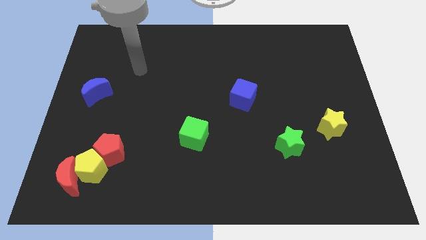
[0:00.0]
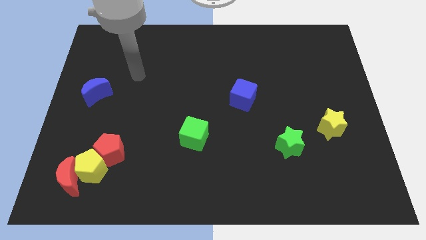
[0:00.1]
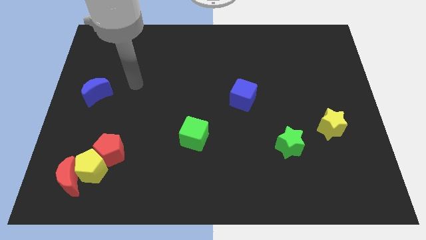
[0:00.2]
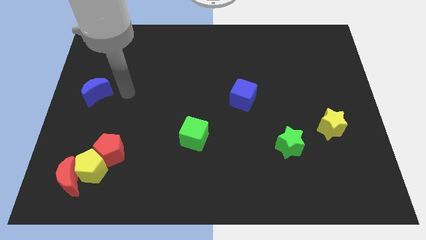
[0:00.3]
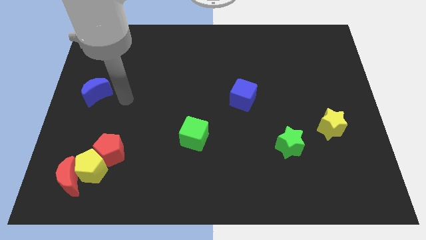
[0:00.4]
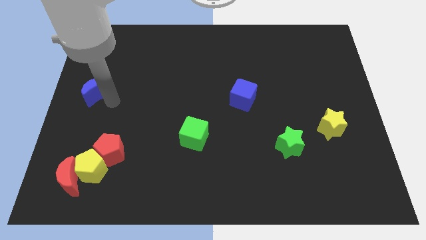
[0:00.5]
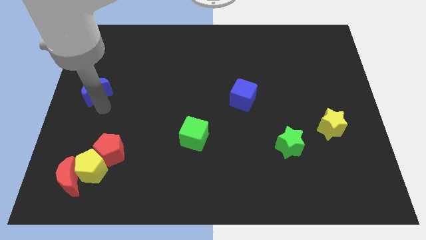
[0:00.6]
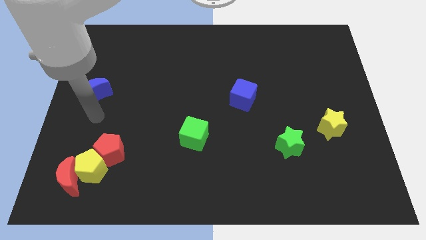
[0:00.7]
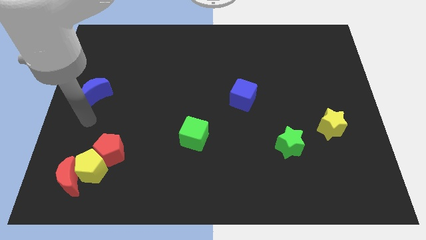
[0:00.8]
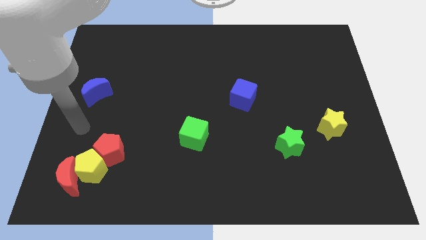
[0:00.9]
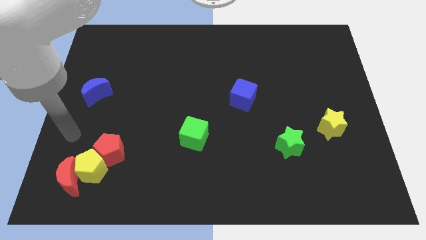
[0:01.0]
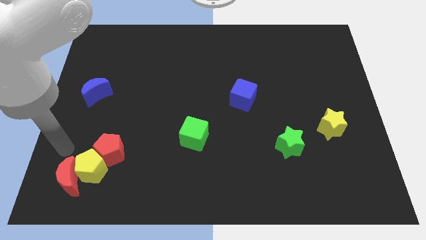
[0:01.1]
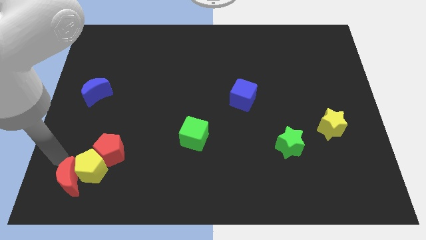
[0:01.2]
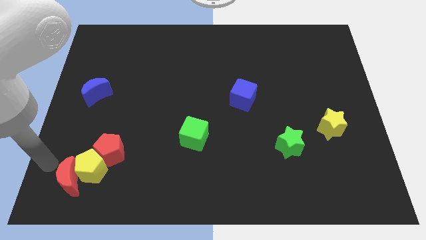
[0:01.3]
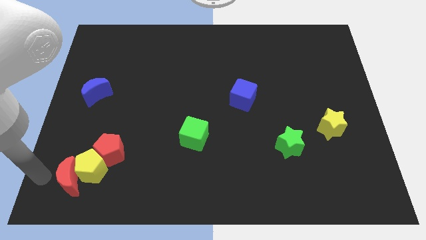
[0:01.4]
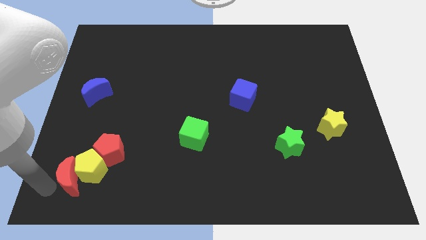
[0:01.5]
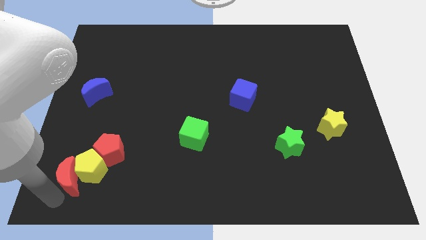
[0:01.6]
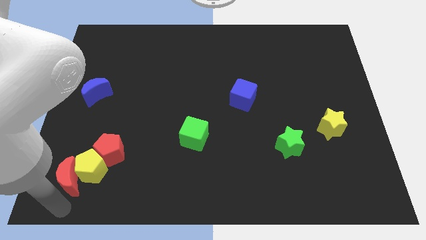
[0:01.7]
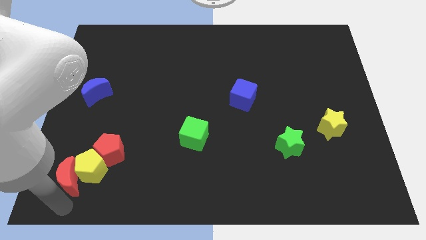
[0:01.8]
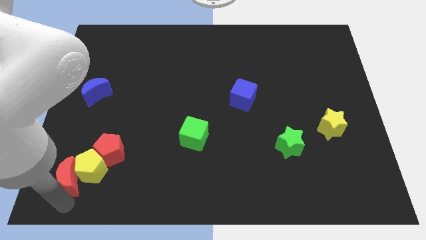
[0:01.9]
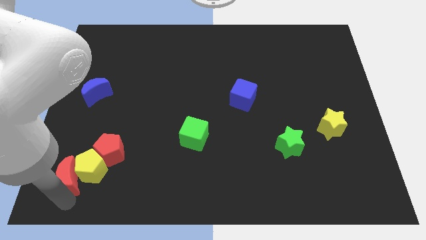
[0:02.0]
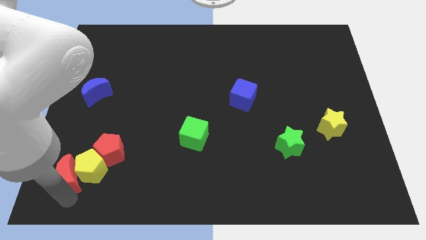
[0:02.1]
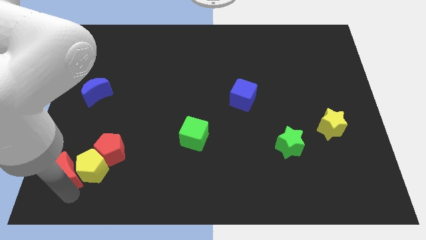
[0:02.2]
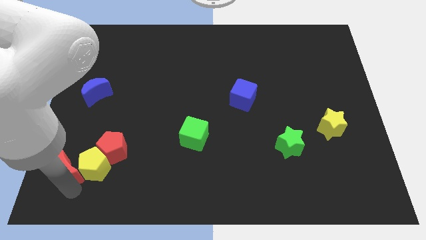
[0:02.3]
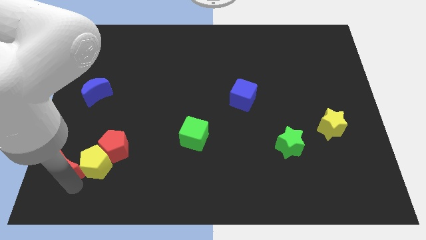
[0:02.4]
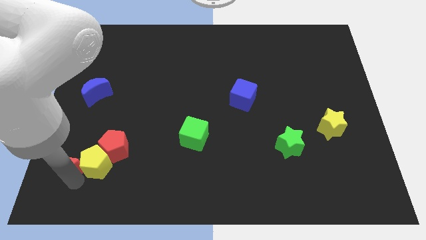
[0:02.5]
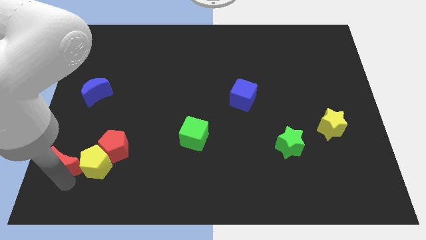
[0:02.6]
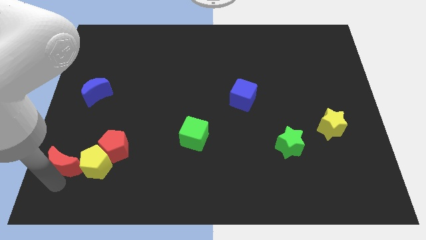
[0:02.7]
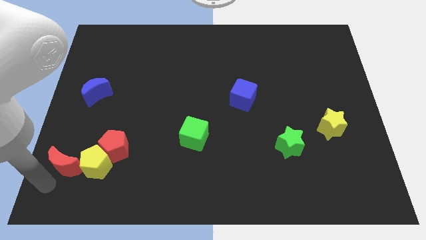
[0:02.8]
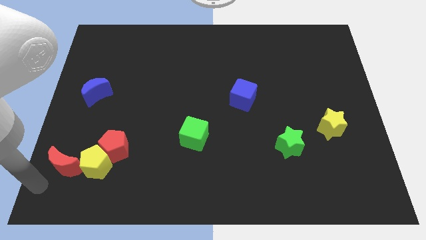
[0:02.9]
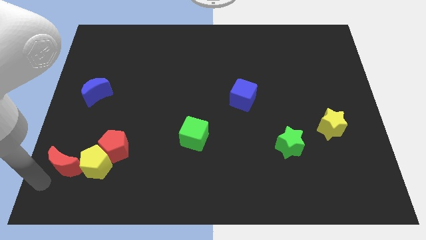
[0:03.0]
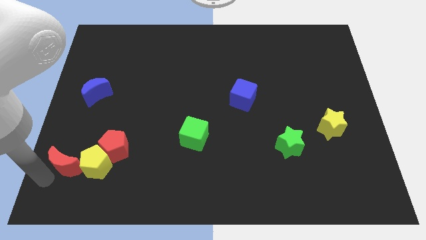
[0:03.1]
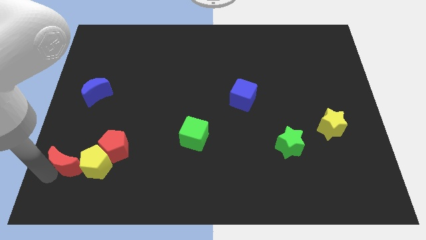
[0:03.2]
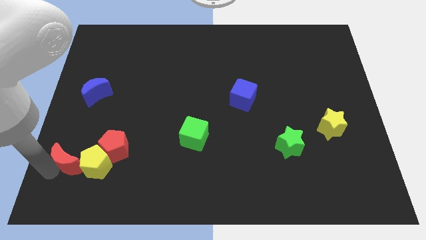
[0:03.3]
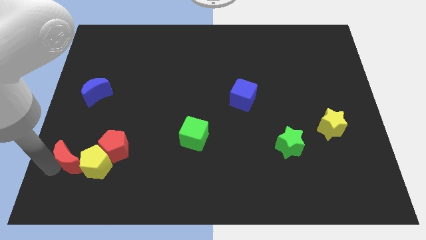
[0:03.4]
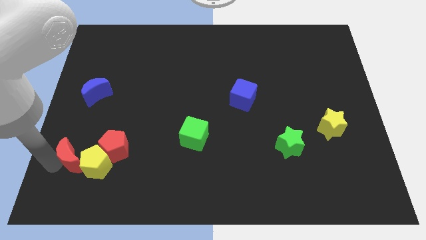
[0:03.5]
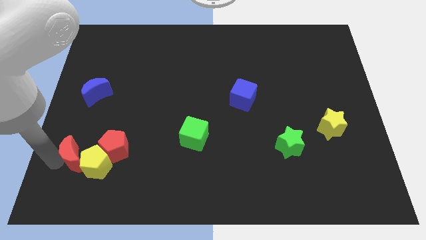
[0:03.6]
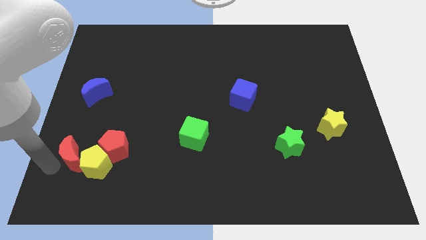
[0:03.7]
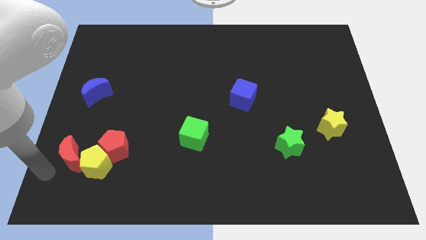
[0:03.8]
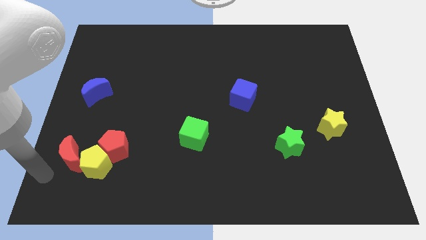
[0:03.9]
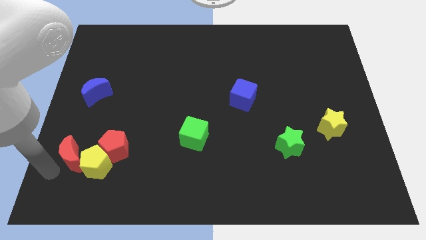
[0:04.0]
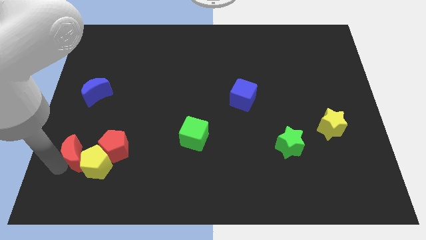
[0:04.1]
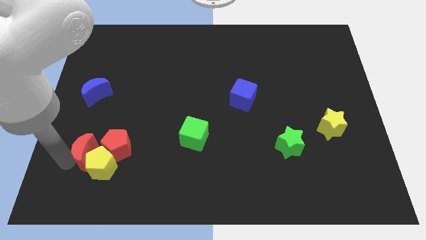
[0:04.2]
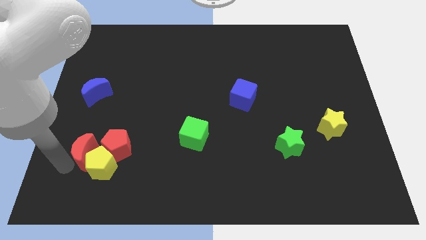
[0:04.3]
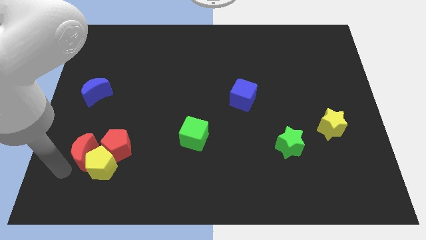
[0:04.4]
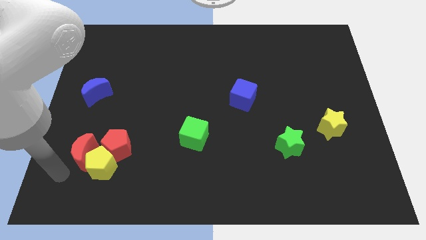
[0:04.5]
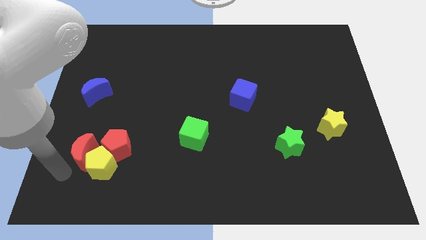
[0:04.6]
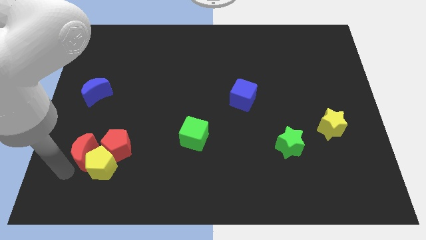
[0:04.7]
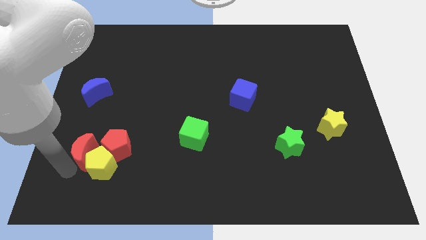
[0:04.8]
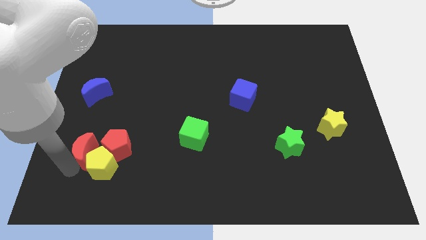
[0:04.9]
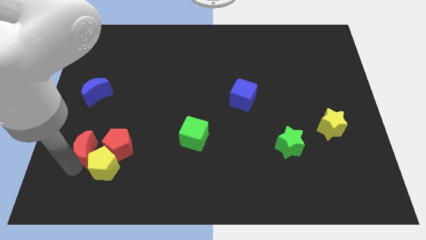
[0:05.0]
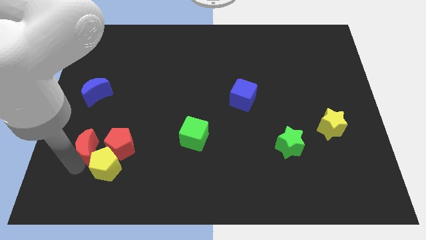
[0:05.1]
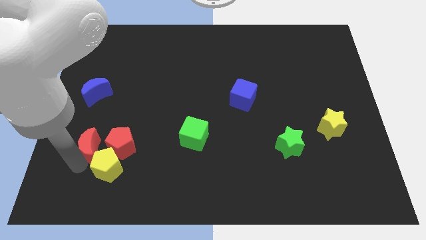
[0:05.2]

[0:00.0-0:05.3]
slightly slide the red moon up and to the right diagonally

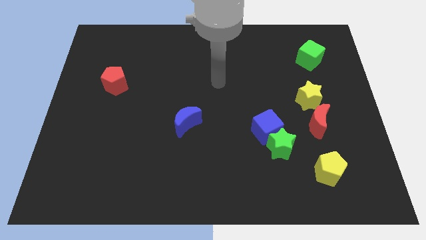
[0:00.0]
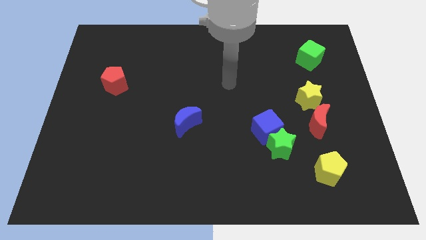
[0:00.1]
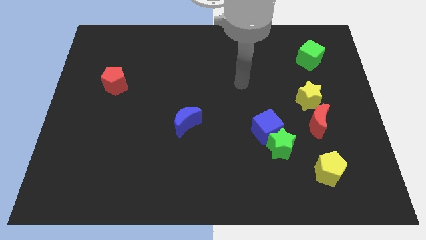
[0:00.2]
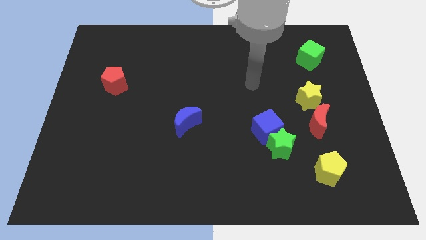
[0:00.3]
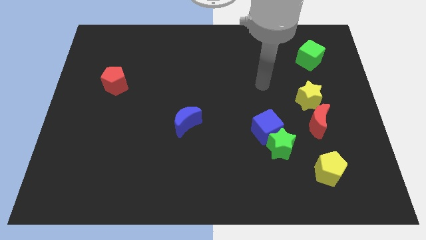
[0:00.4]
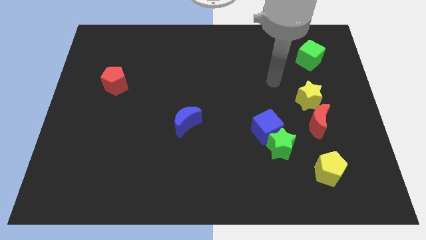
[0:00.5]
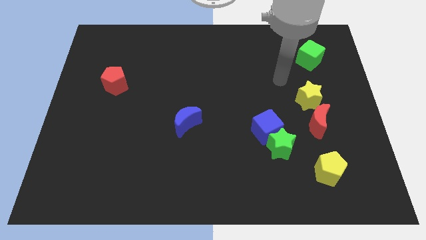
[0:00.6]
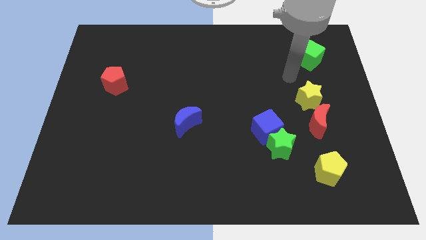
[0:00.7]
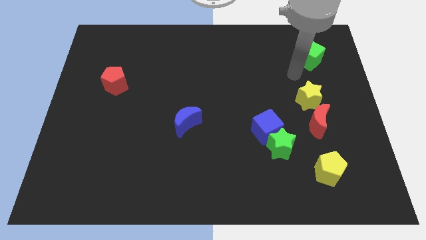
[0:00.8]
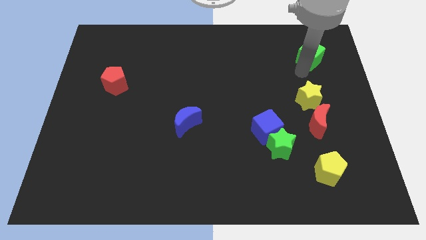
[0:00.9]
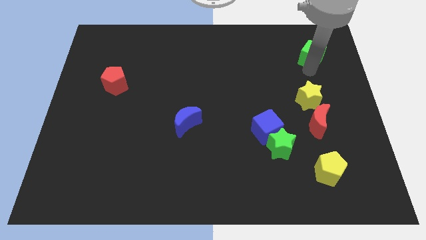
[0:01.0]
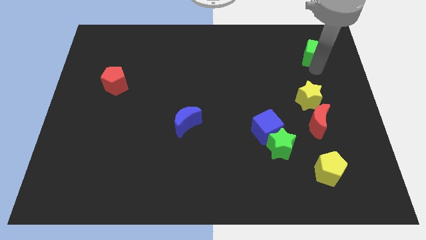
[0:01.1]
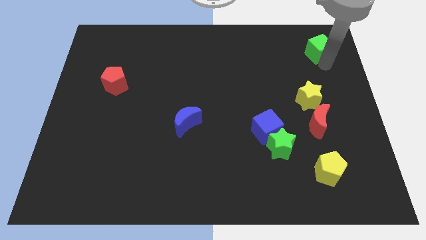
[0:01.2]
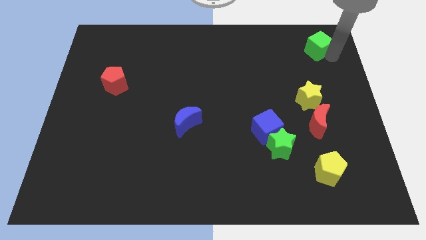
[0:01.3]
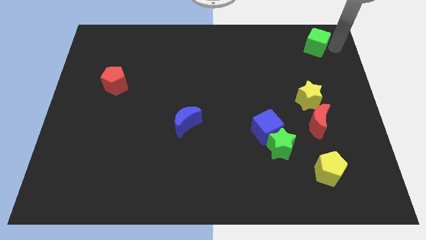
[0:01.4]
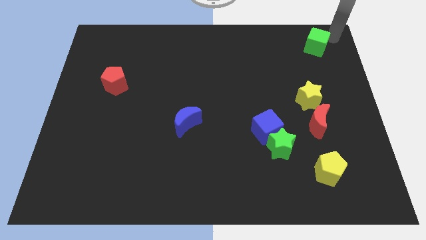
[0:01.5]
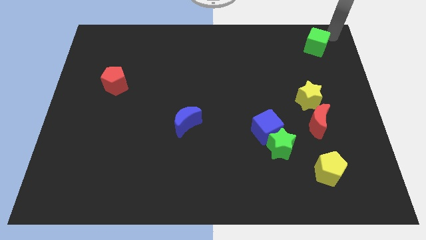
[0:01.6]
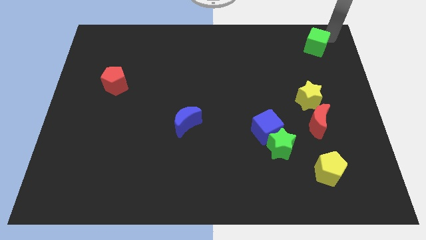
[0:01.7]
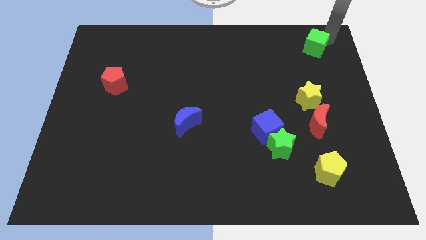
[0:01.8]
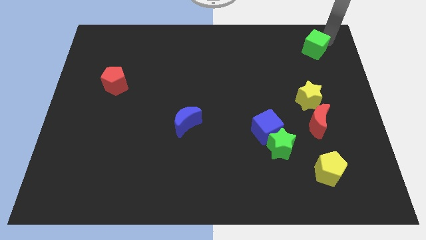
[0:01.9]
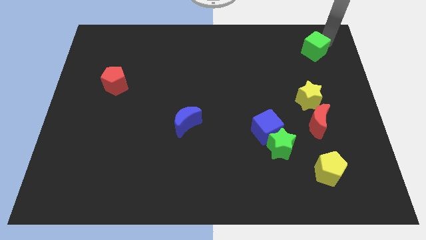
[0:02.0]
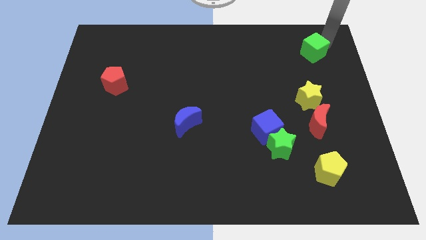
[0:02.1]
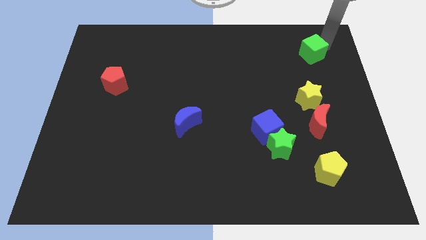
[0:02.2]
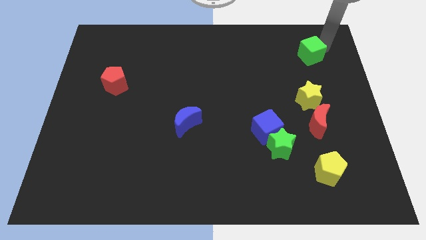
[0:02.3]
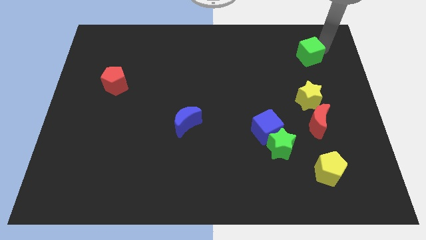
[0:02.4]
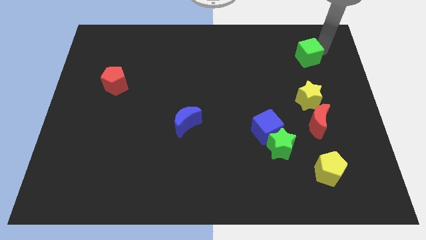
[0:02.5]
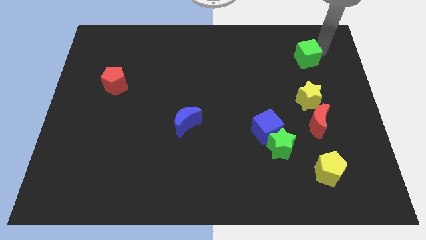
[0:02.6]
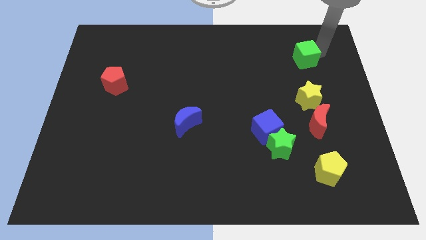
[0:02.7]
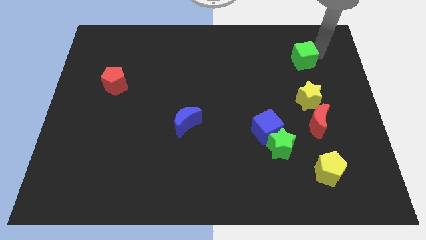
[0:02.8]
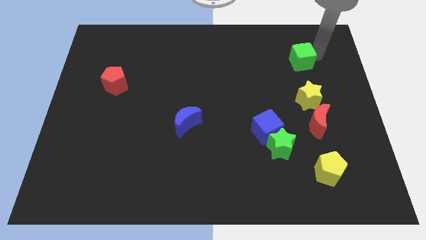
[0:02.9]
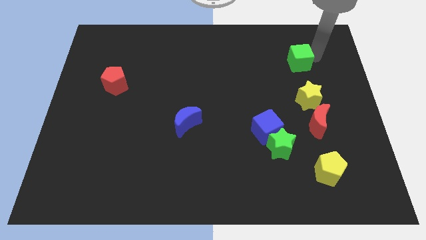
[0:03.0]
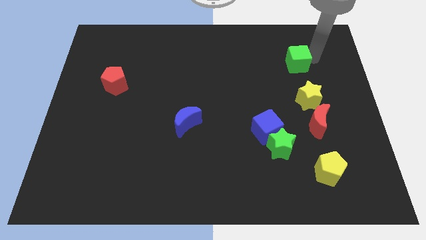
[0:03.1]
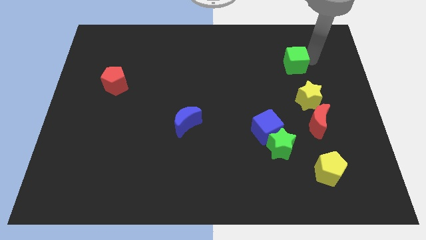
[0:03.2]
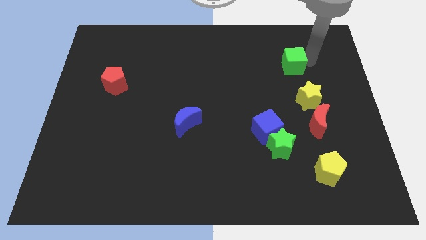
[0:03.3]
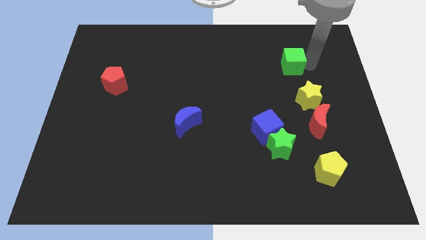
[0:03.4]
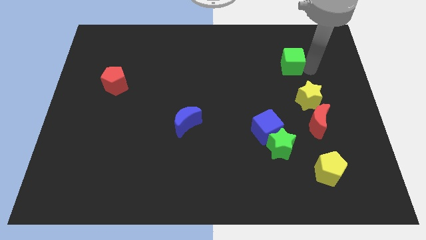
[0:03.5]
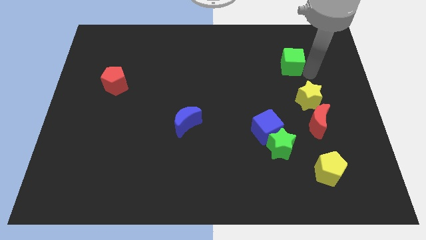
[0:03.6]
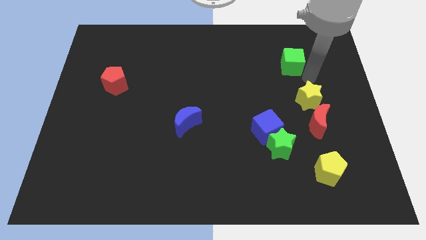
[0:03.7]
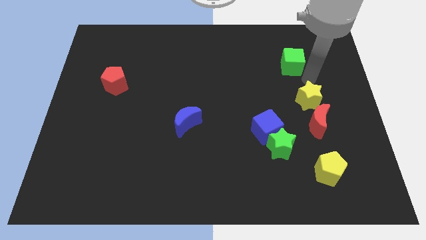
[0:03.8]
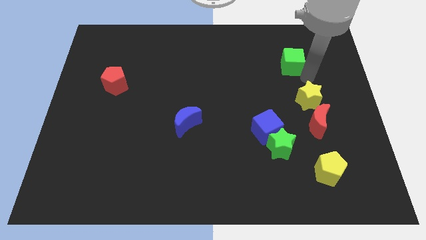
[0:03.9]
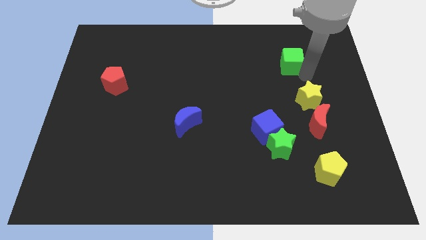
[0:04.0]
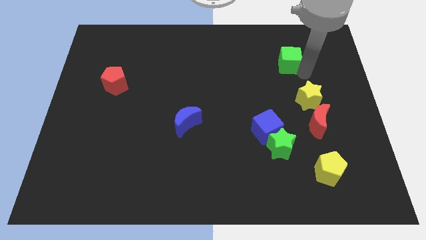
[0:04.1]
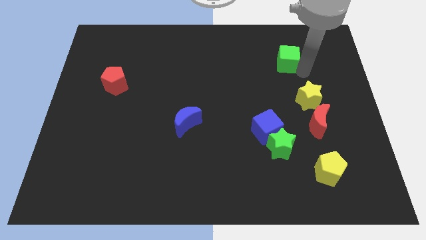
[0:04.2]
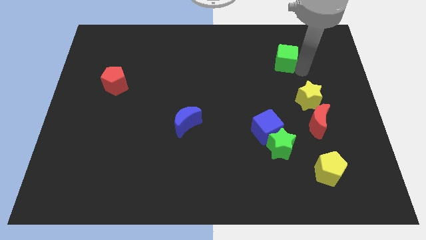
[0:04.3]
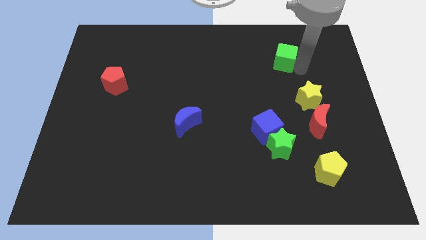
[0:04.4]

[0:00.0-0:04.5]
move the green cube somewhat to the left
